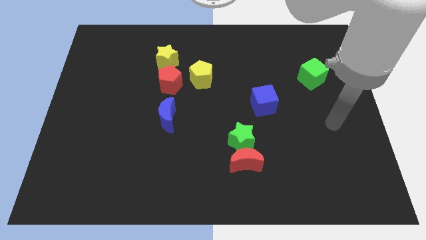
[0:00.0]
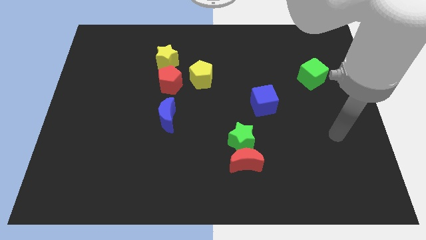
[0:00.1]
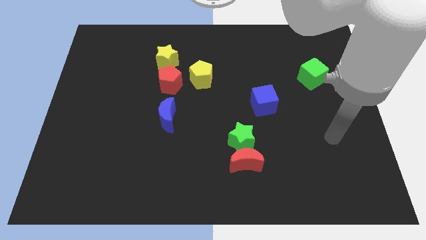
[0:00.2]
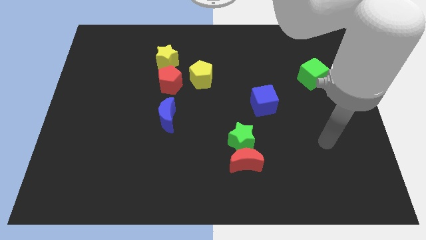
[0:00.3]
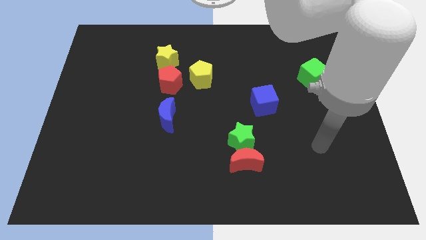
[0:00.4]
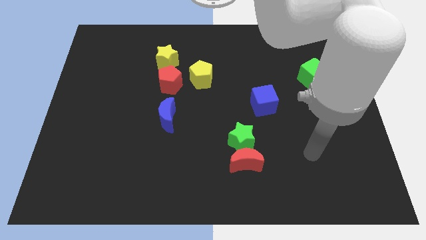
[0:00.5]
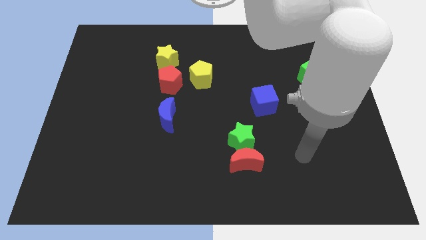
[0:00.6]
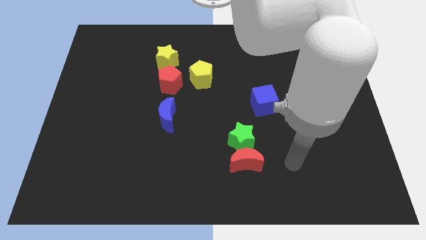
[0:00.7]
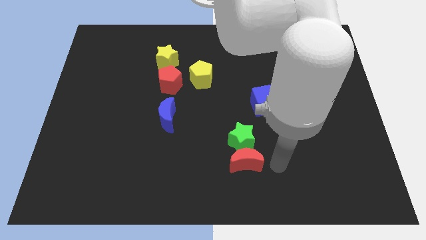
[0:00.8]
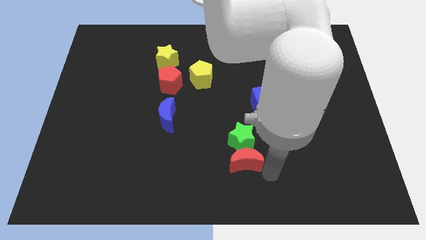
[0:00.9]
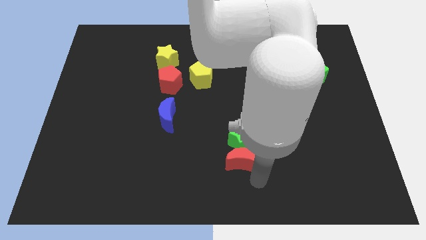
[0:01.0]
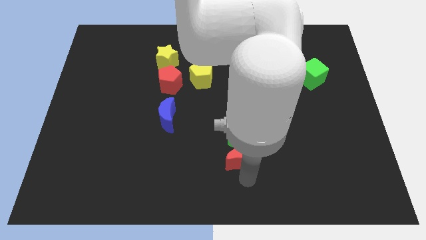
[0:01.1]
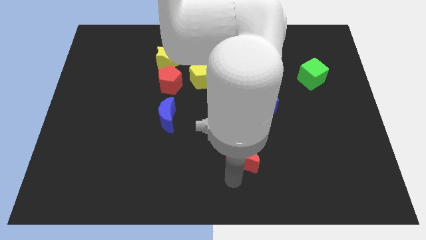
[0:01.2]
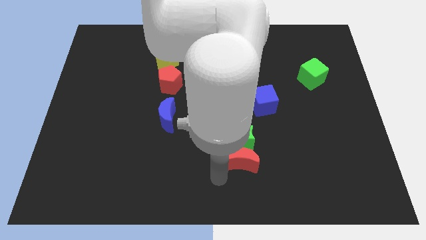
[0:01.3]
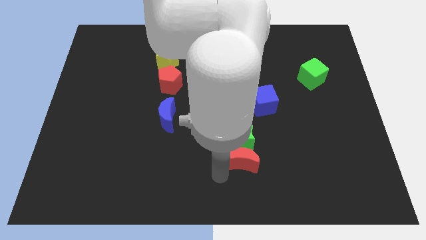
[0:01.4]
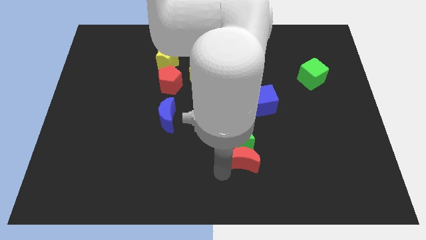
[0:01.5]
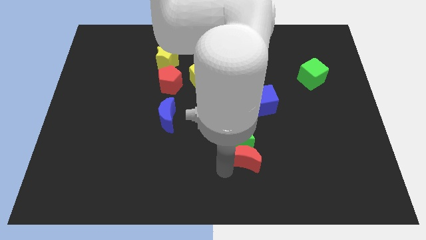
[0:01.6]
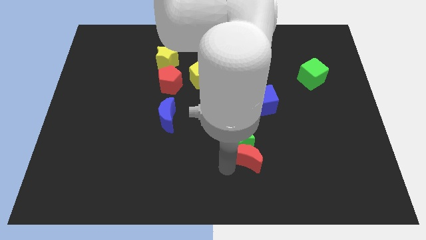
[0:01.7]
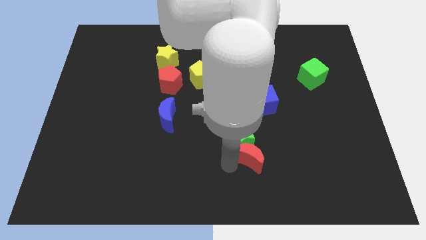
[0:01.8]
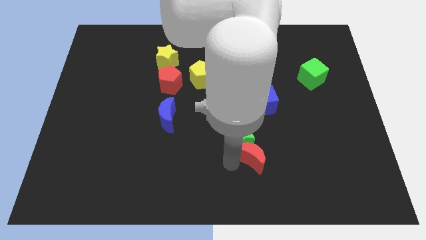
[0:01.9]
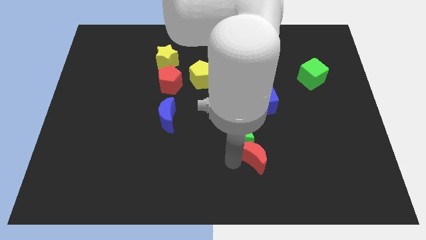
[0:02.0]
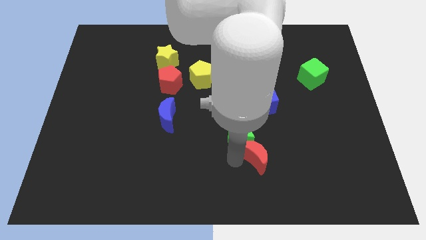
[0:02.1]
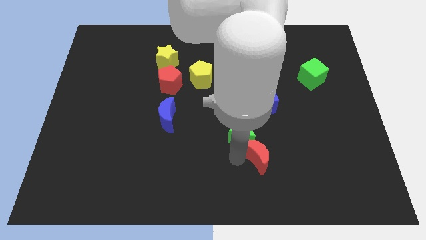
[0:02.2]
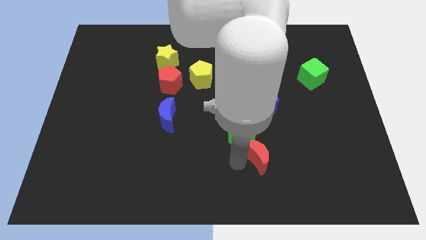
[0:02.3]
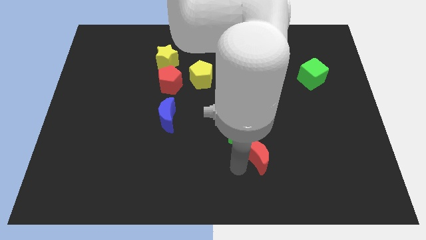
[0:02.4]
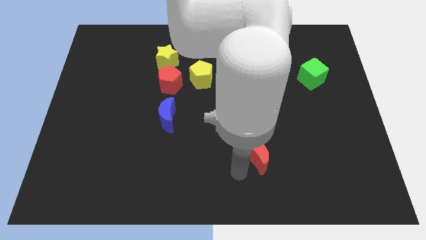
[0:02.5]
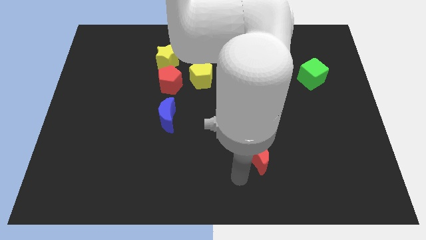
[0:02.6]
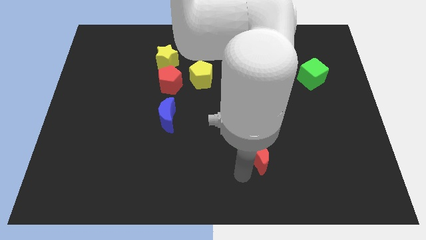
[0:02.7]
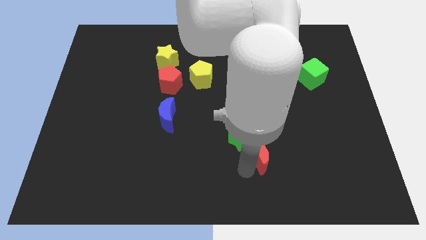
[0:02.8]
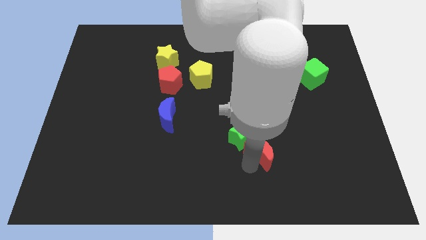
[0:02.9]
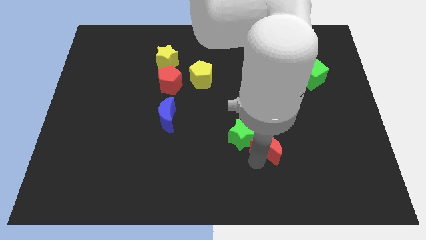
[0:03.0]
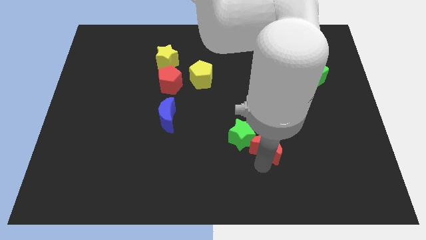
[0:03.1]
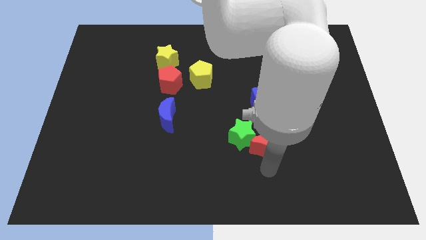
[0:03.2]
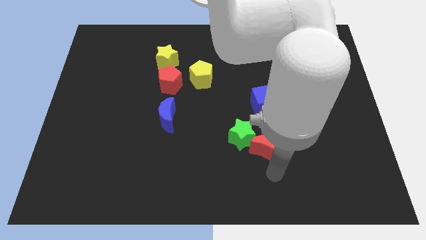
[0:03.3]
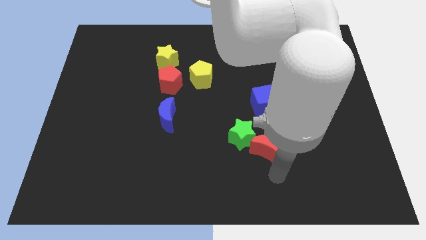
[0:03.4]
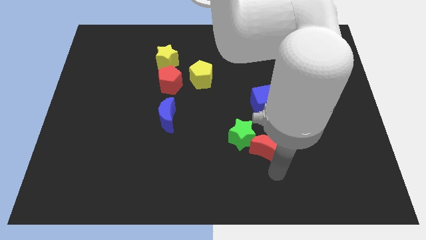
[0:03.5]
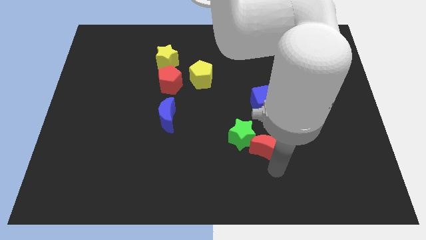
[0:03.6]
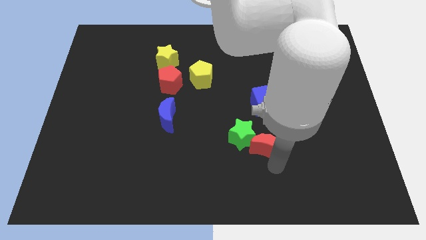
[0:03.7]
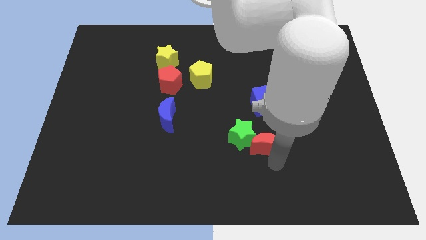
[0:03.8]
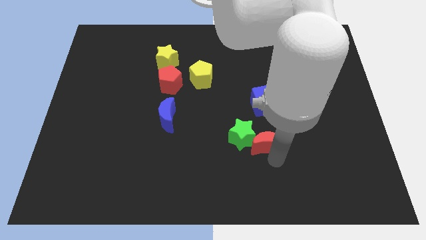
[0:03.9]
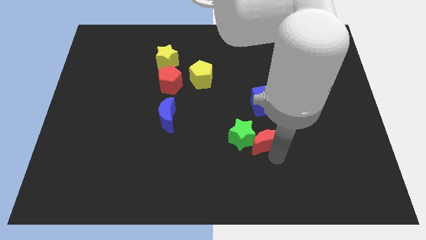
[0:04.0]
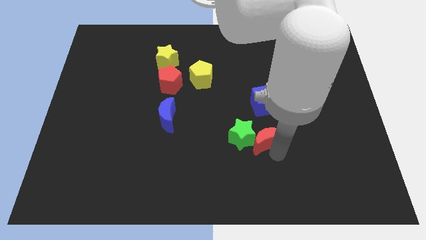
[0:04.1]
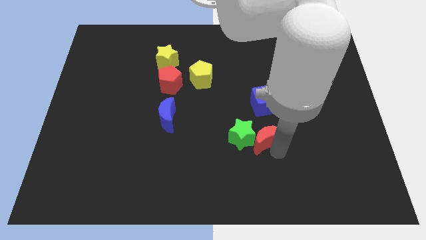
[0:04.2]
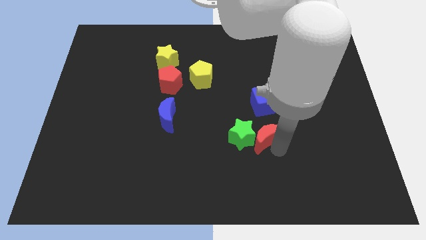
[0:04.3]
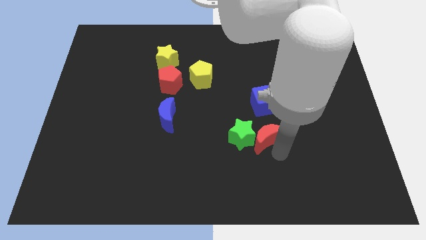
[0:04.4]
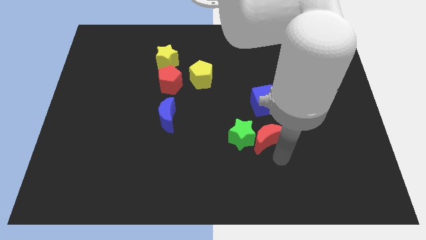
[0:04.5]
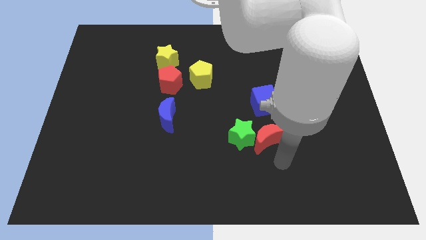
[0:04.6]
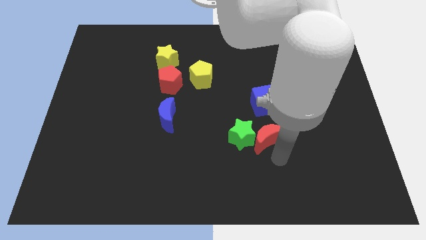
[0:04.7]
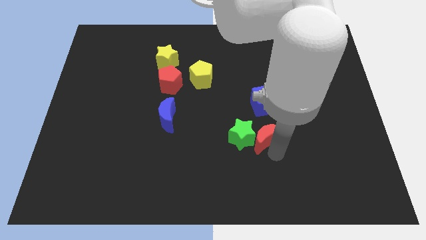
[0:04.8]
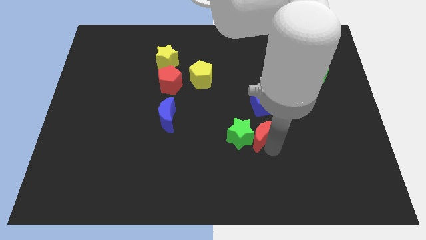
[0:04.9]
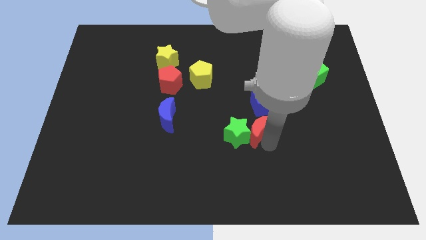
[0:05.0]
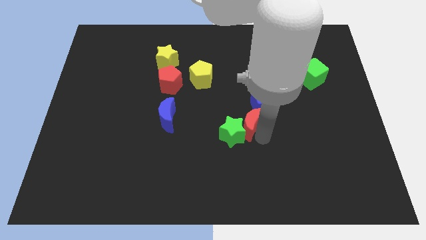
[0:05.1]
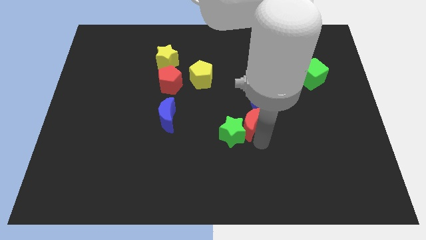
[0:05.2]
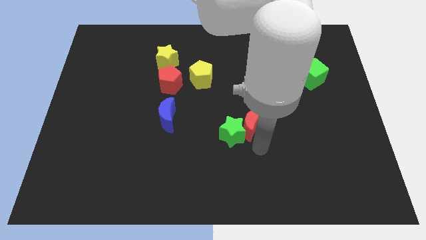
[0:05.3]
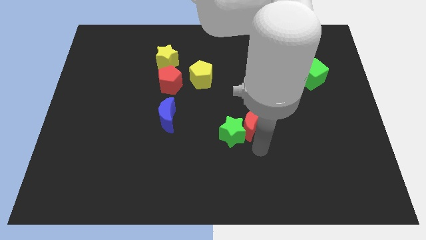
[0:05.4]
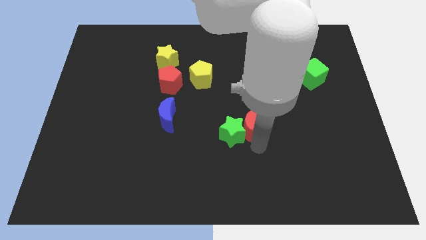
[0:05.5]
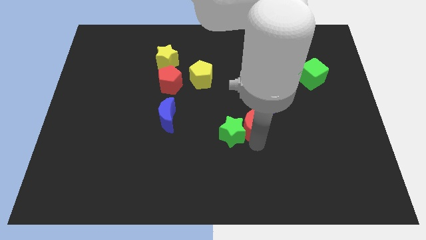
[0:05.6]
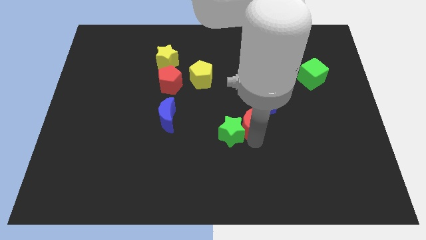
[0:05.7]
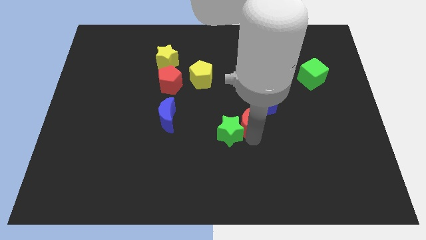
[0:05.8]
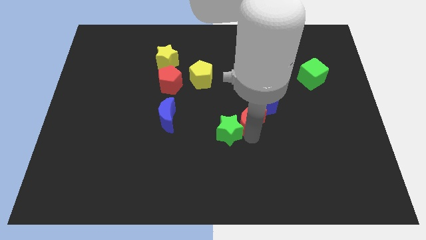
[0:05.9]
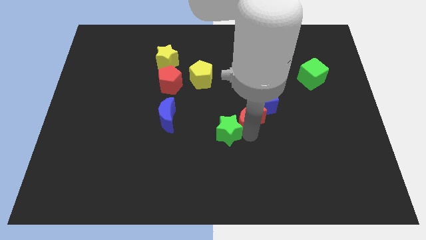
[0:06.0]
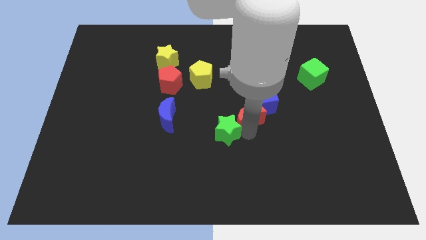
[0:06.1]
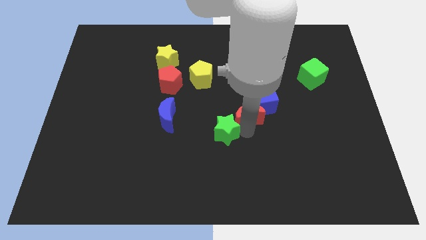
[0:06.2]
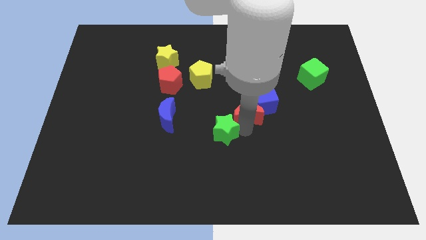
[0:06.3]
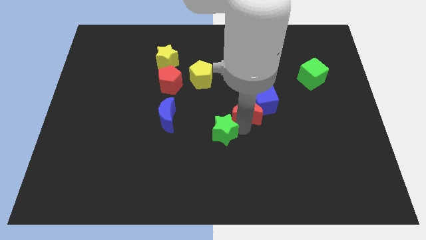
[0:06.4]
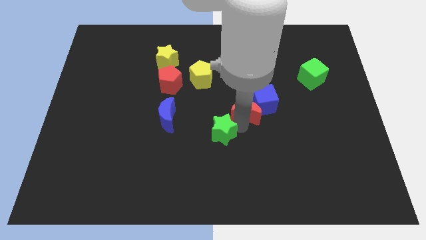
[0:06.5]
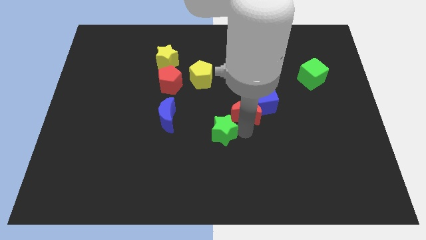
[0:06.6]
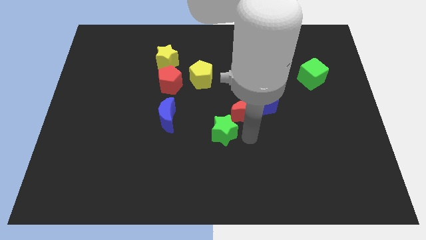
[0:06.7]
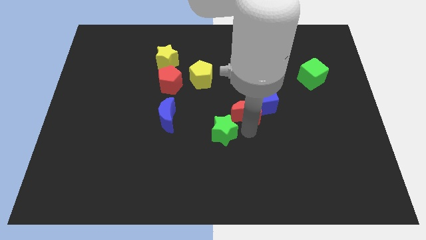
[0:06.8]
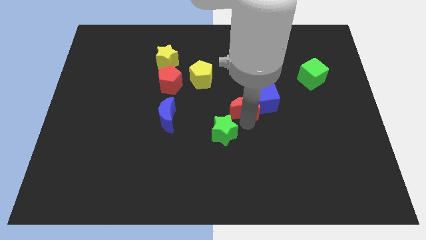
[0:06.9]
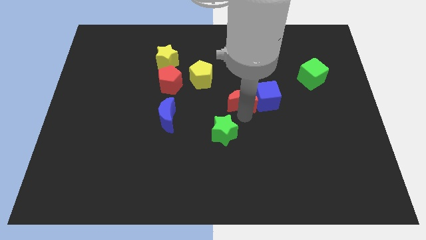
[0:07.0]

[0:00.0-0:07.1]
move the red moon to the top left of the blue cube

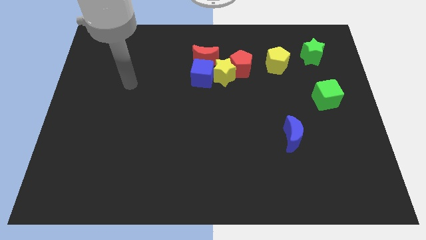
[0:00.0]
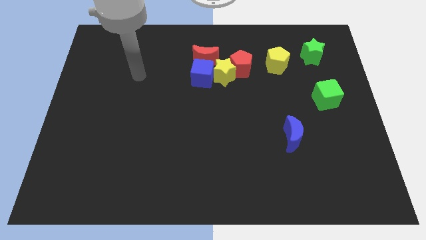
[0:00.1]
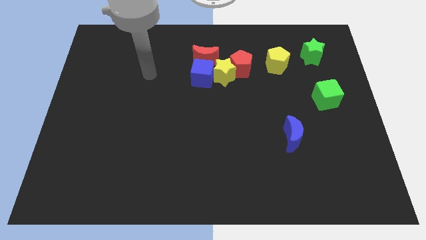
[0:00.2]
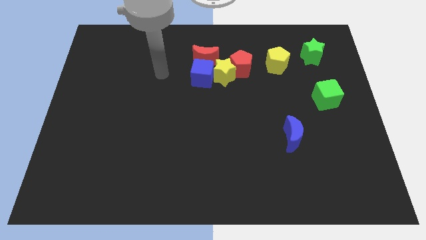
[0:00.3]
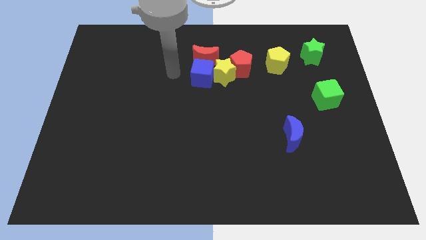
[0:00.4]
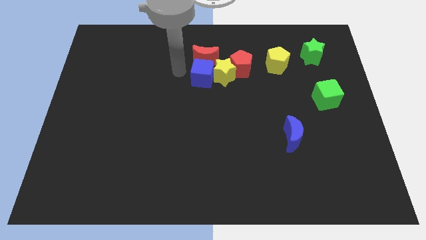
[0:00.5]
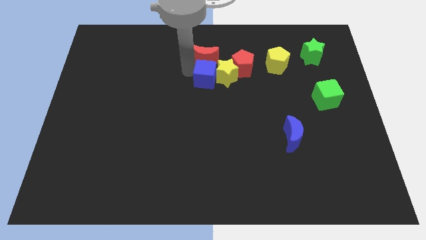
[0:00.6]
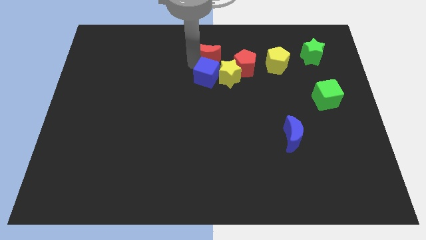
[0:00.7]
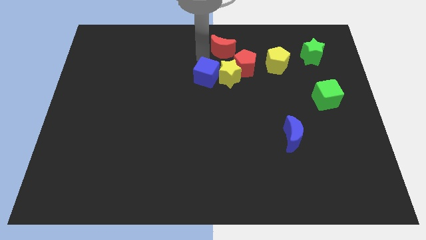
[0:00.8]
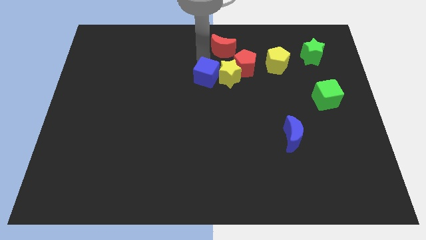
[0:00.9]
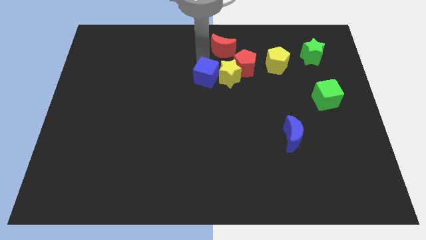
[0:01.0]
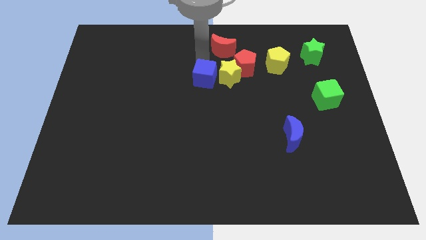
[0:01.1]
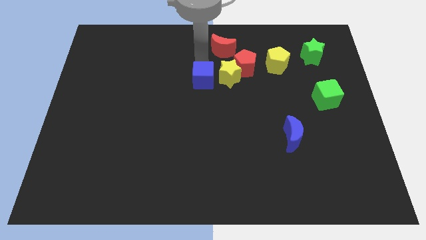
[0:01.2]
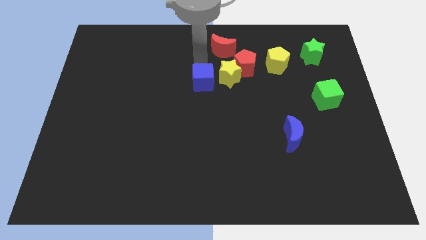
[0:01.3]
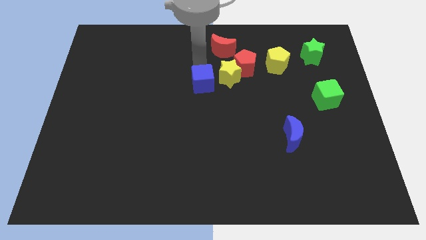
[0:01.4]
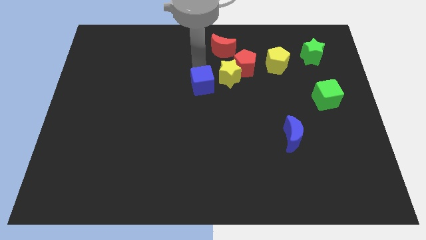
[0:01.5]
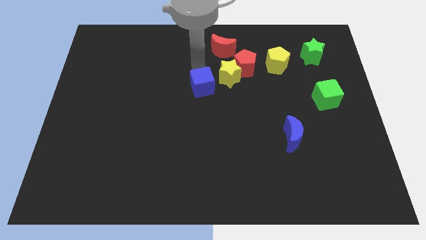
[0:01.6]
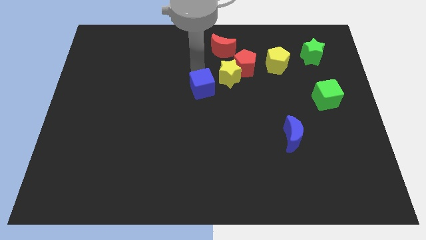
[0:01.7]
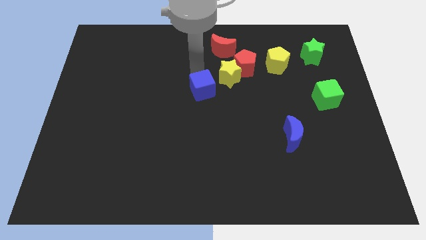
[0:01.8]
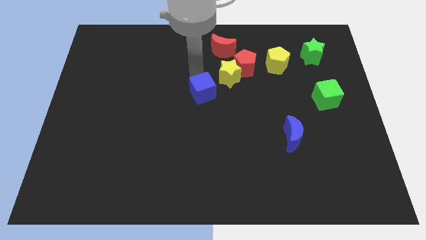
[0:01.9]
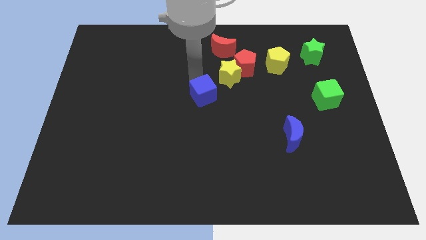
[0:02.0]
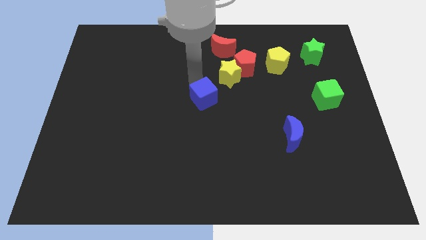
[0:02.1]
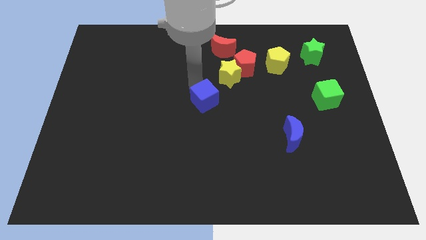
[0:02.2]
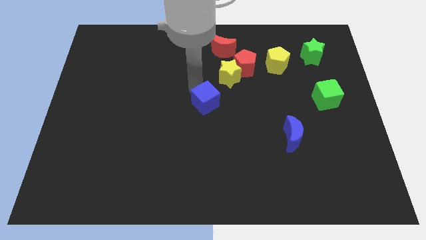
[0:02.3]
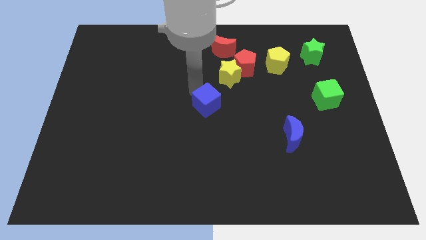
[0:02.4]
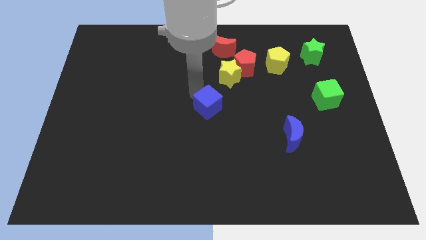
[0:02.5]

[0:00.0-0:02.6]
push the blue cube to the bottom side of the yellow star
